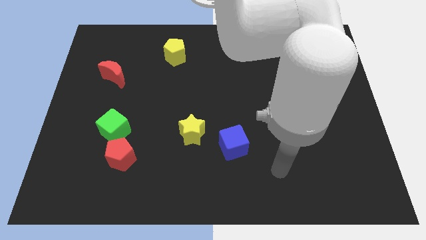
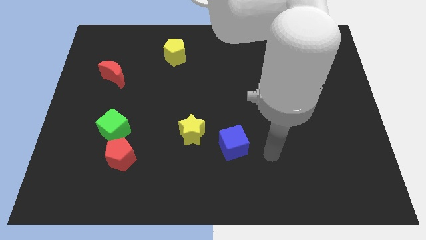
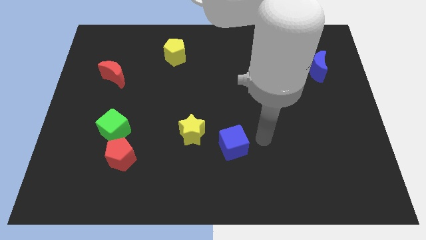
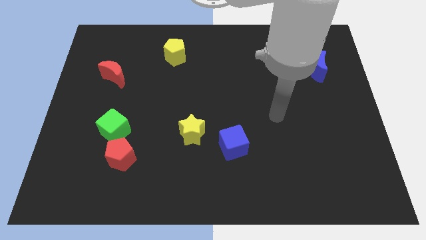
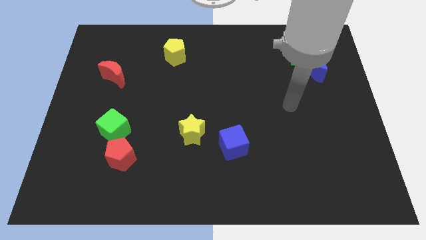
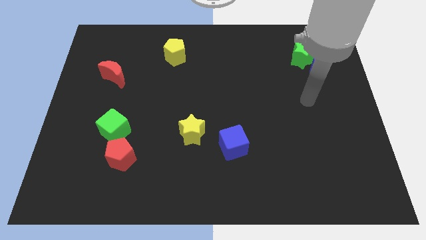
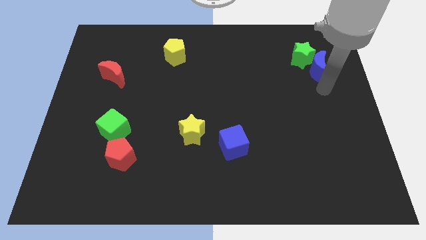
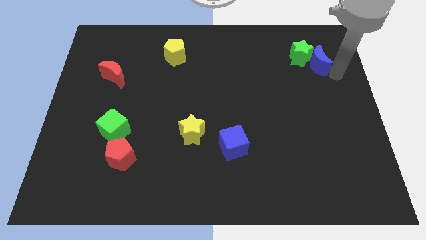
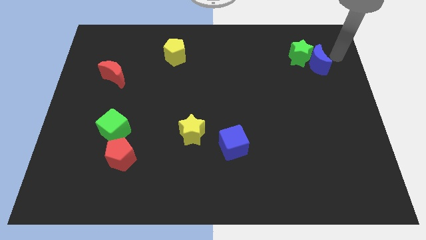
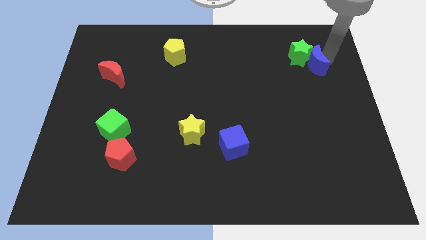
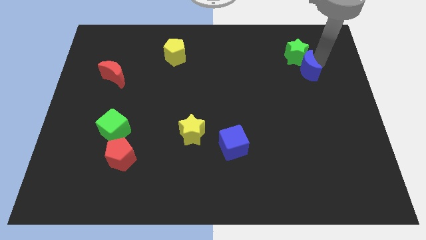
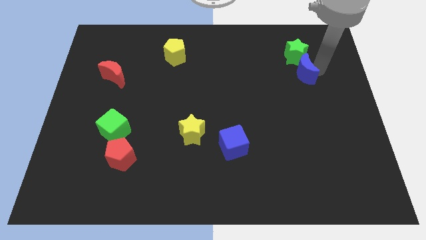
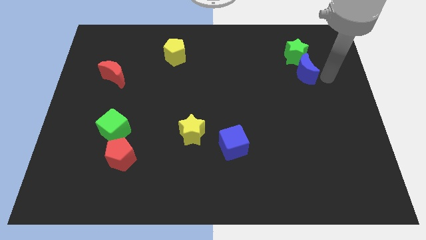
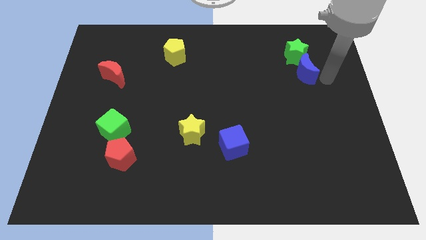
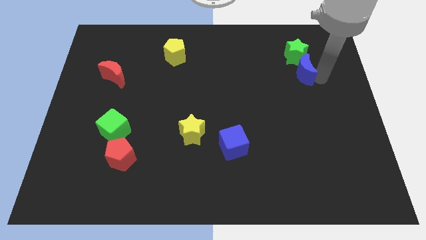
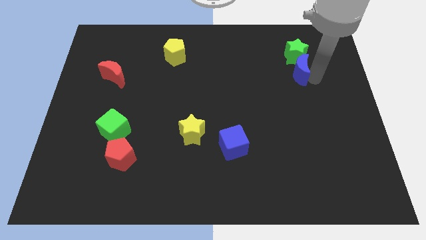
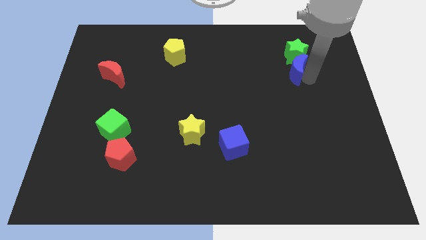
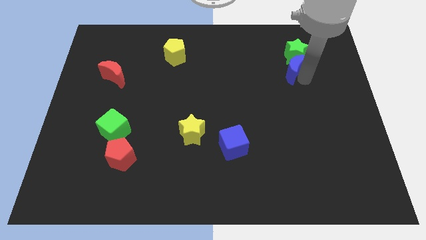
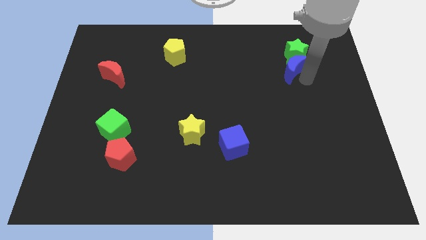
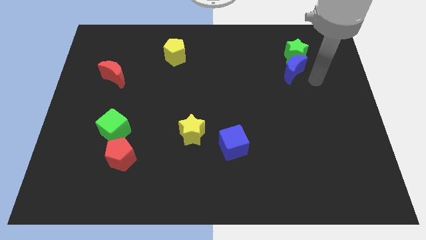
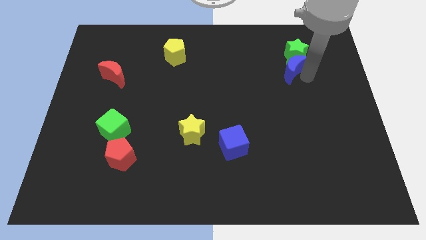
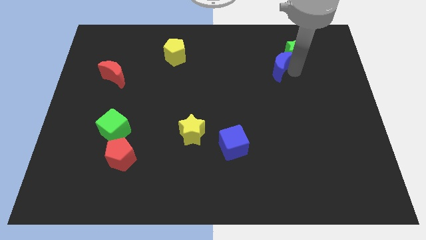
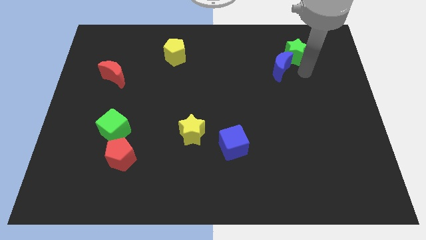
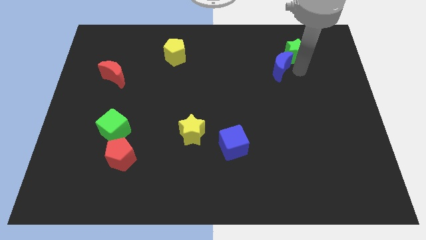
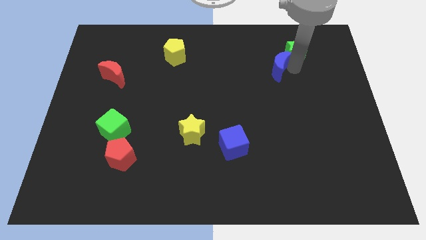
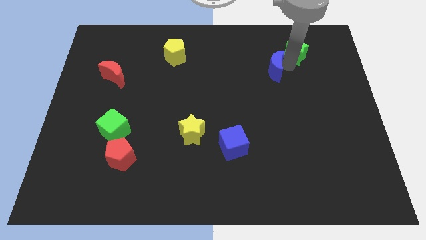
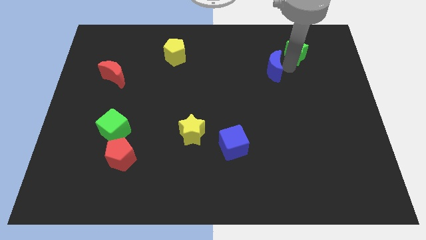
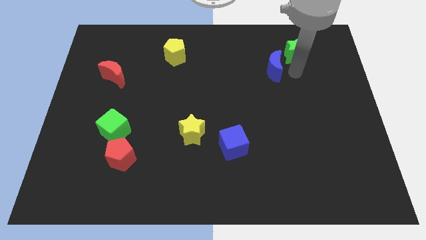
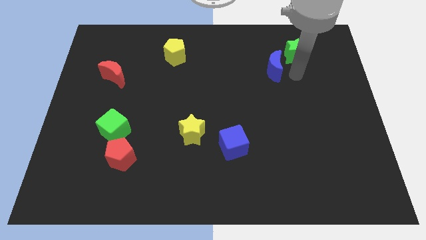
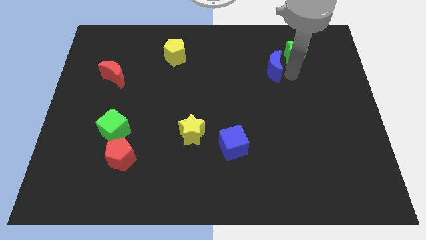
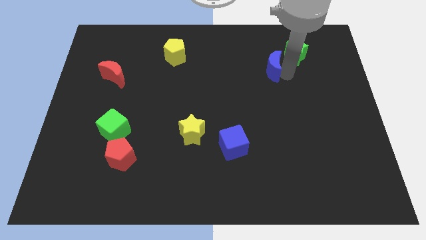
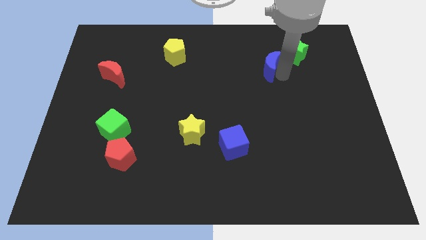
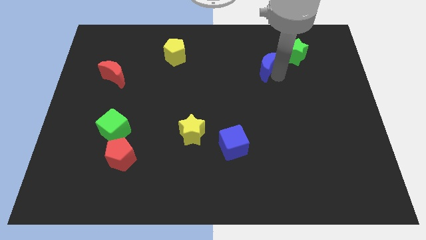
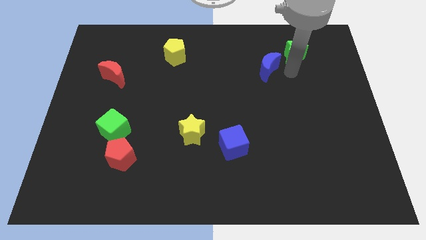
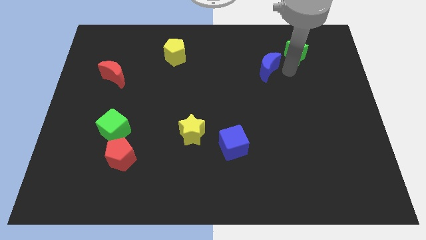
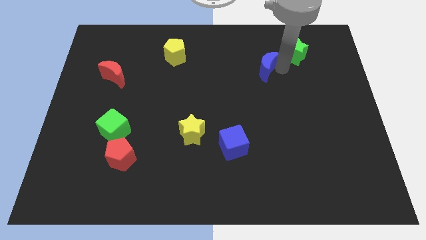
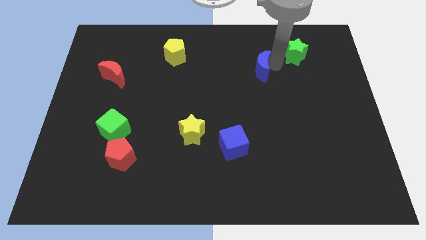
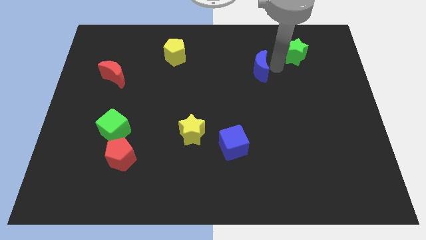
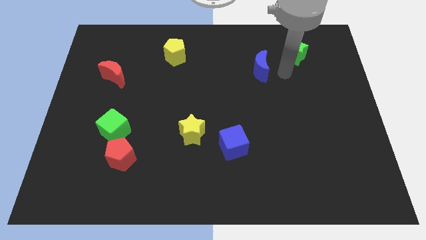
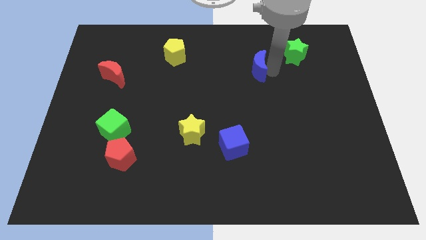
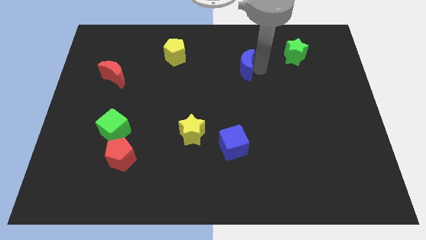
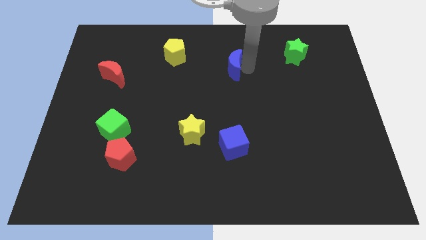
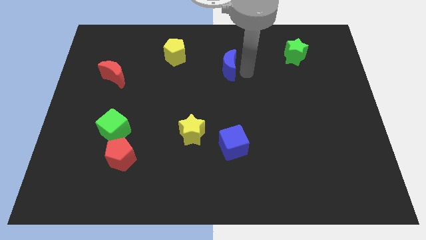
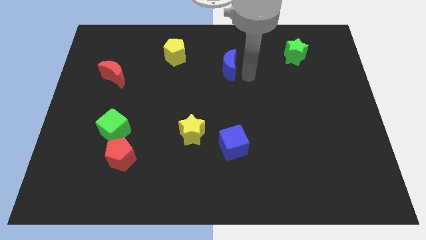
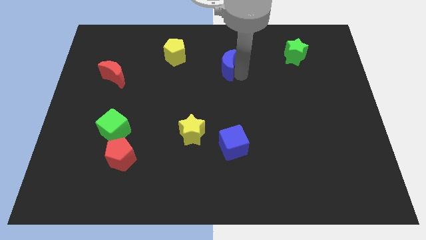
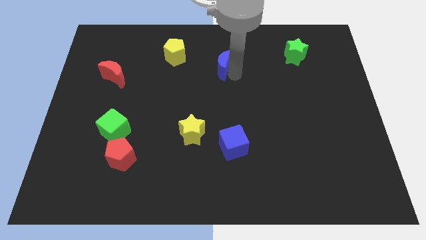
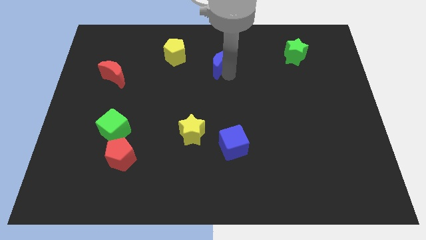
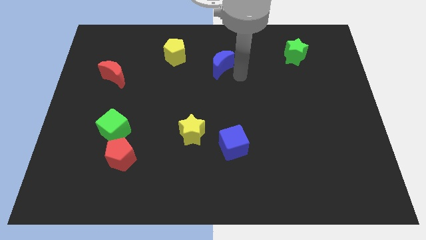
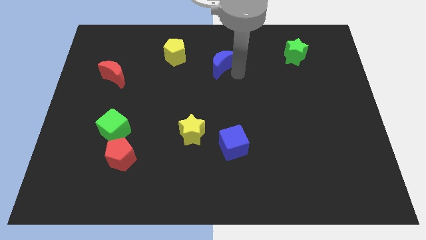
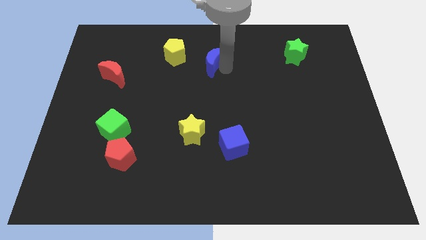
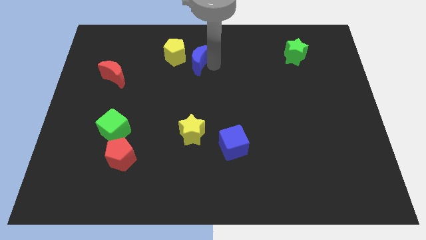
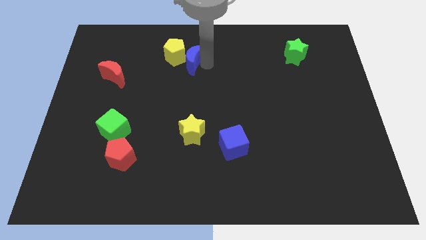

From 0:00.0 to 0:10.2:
move the blue moon towards the yellow pentagon

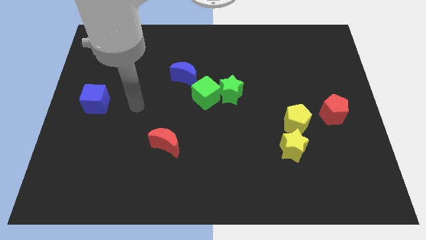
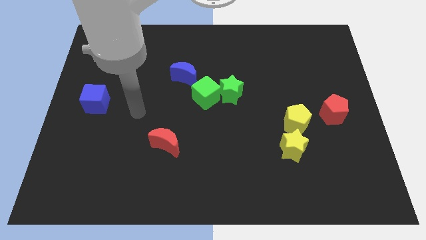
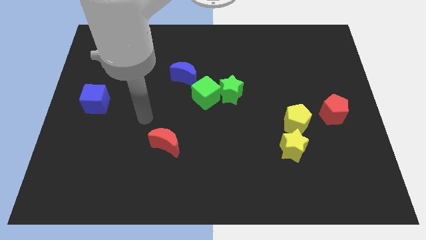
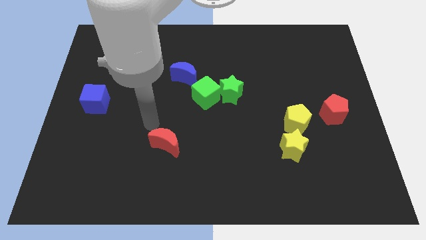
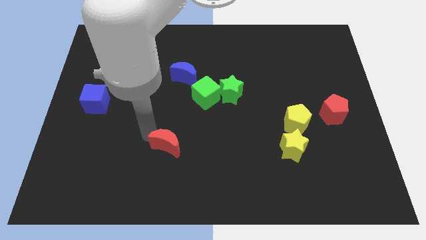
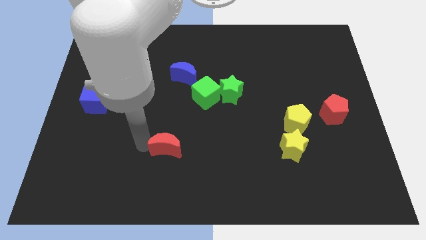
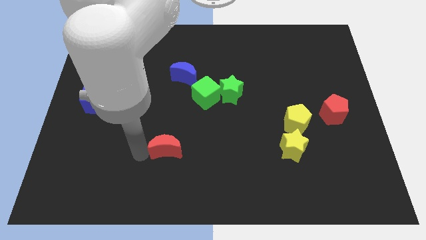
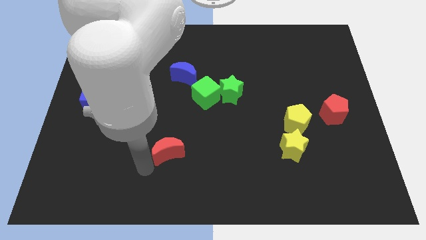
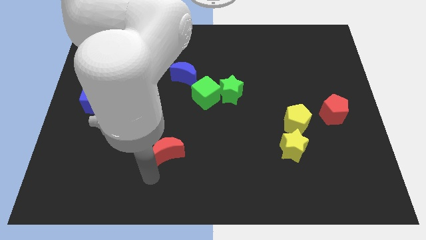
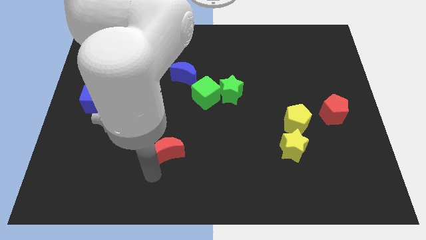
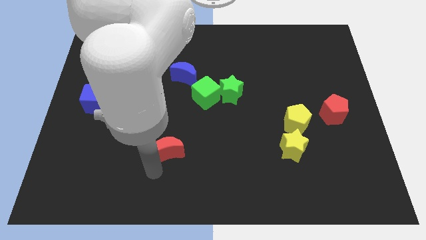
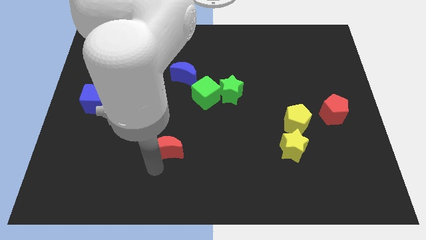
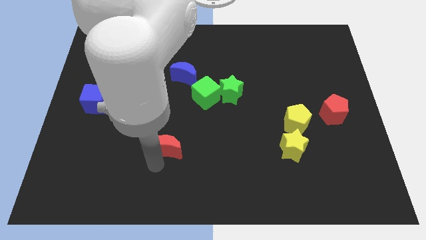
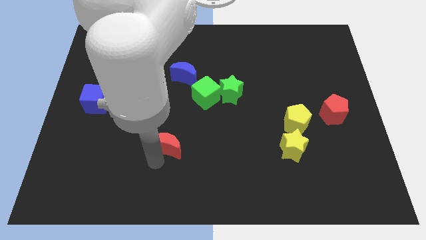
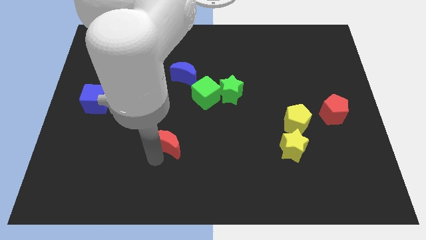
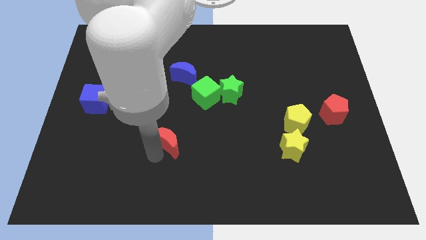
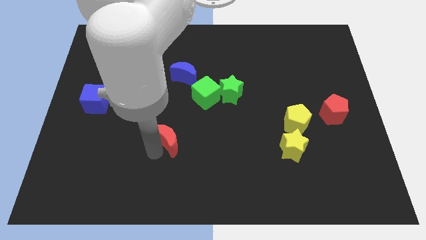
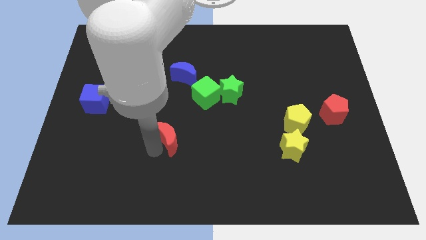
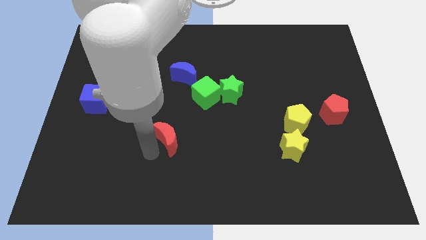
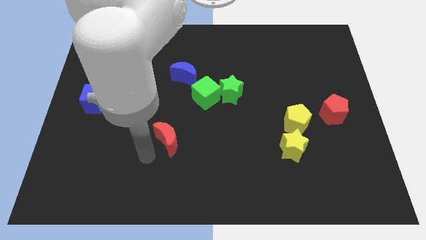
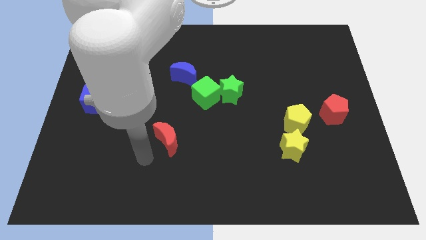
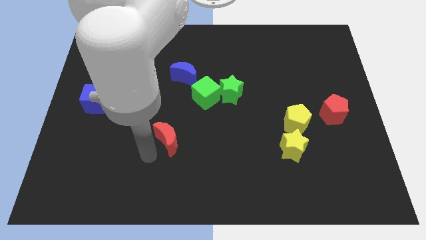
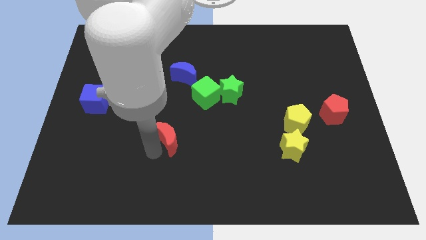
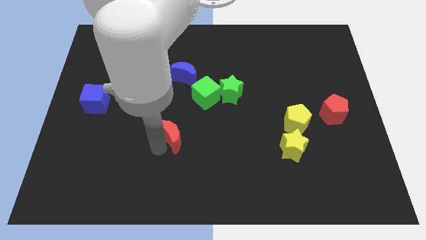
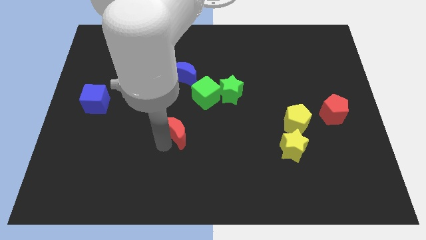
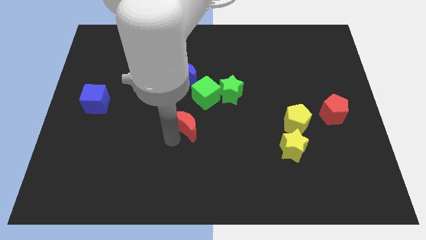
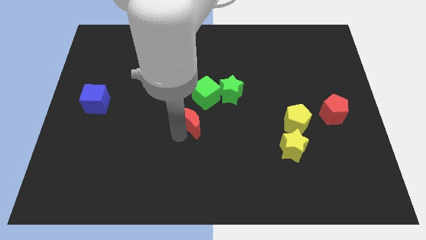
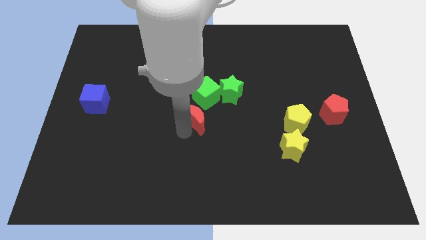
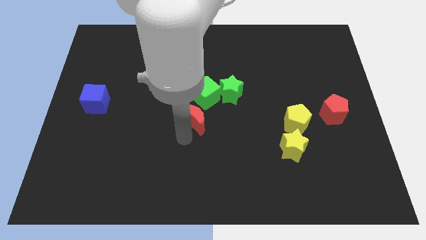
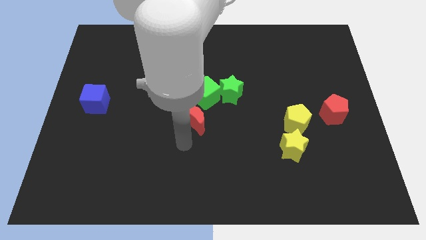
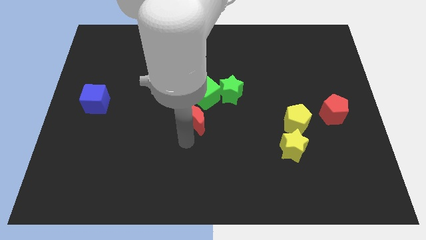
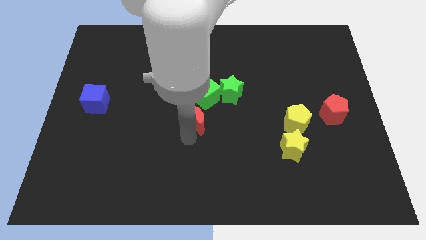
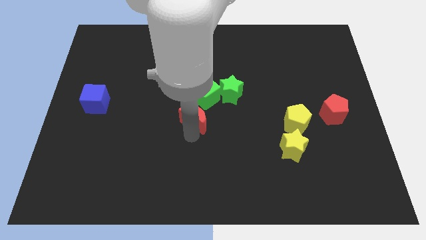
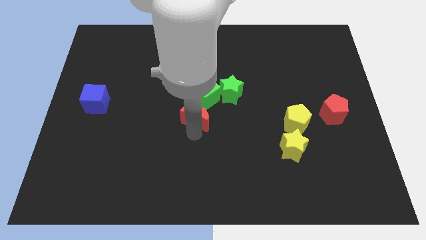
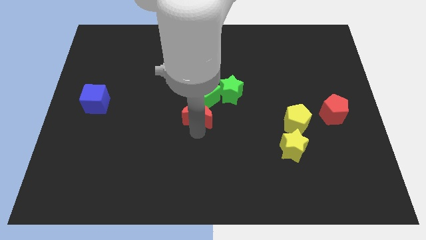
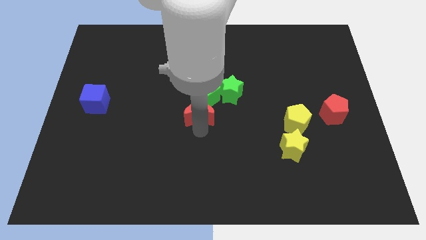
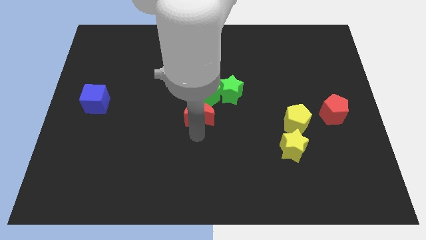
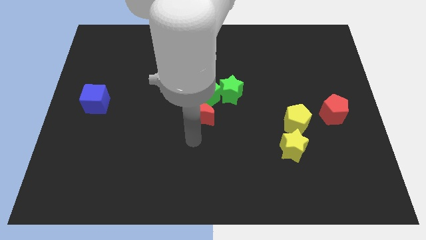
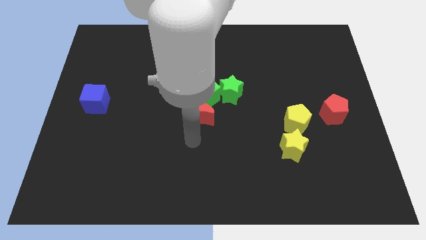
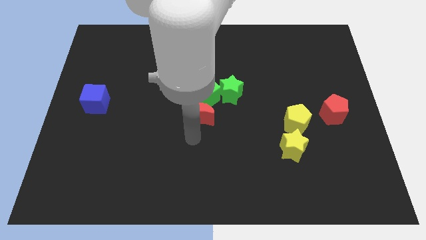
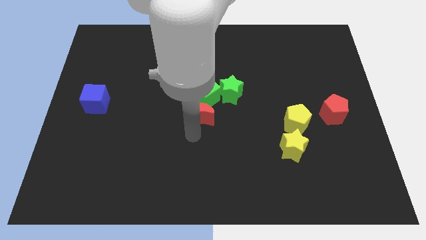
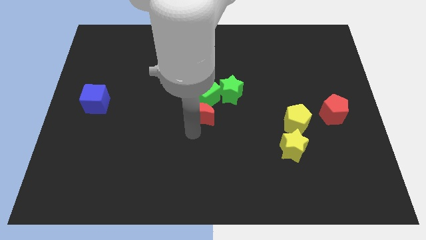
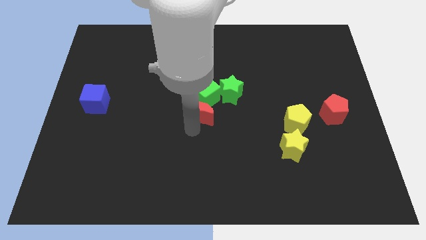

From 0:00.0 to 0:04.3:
put the red moon close to the green cube
